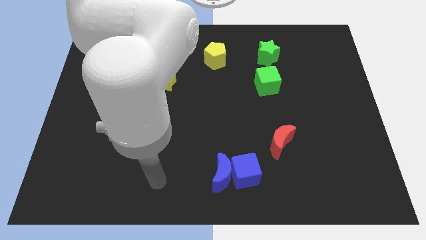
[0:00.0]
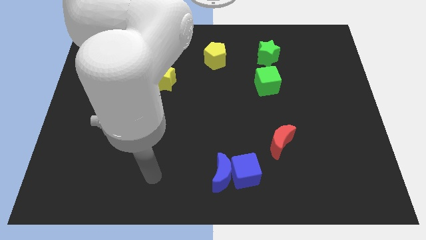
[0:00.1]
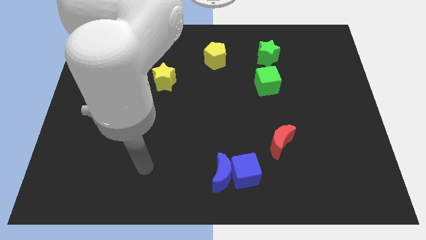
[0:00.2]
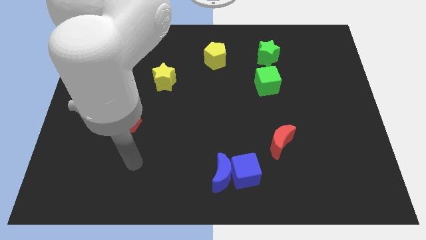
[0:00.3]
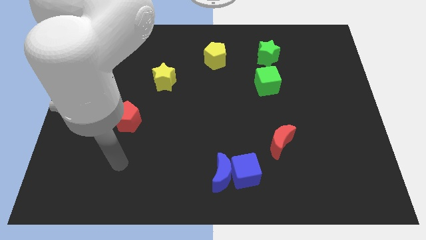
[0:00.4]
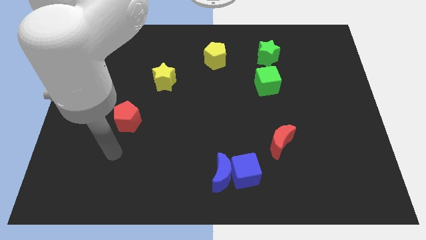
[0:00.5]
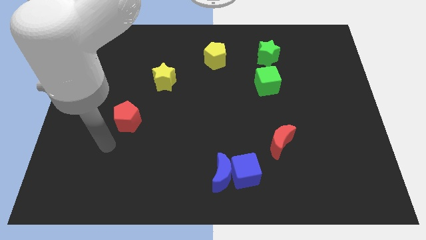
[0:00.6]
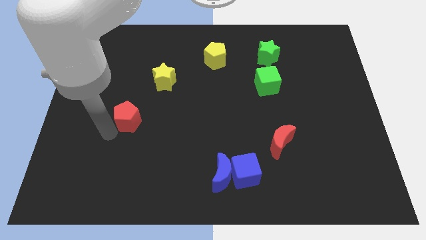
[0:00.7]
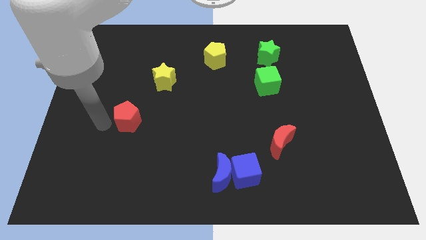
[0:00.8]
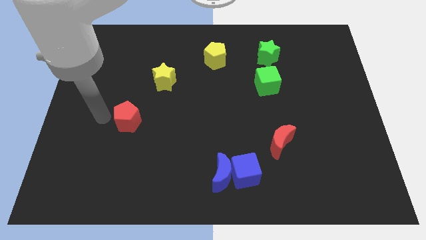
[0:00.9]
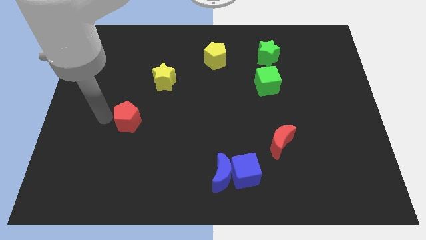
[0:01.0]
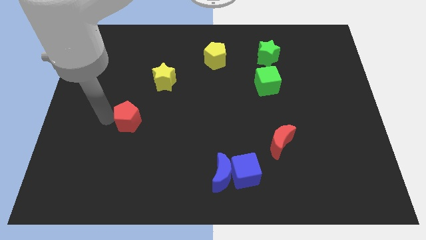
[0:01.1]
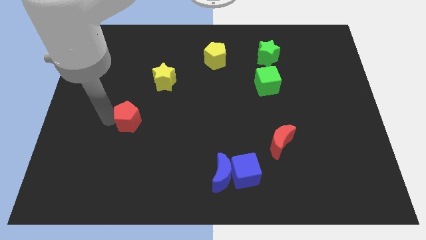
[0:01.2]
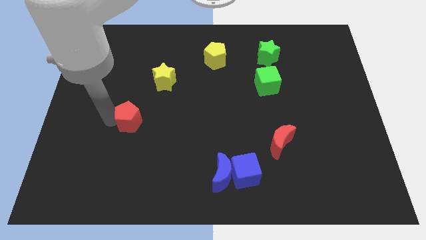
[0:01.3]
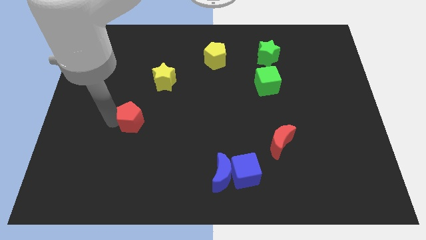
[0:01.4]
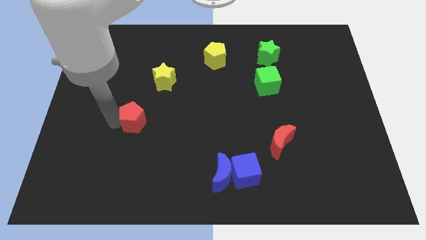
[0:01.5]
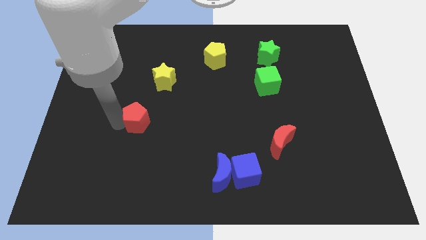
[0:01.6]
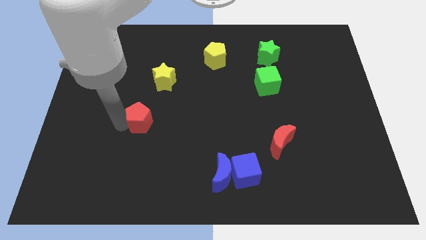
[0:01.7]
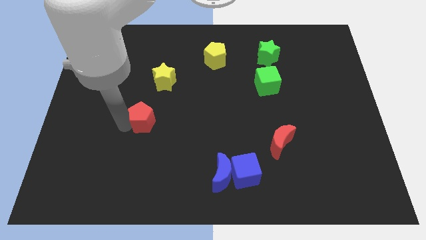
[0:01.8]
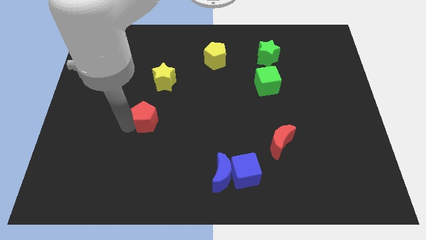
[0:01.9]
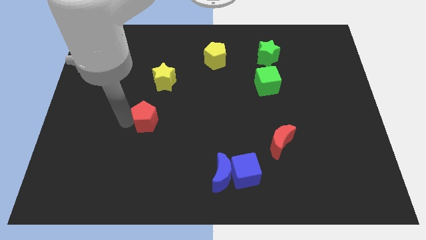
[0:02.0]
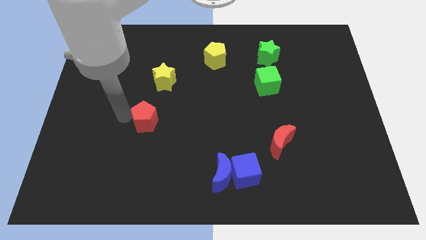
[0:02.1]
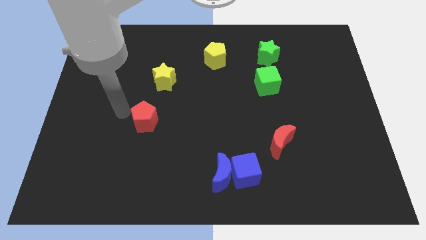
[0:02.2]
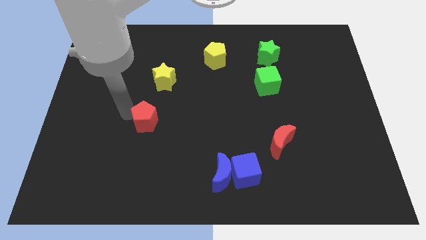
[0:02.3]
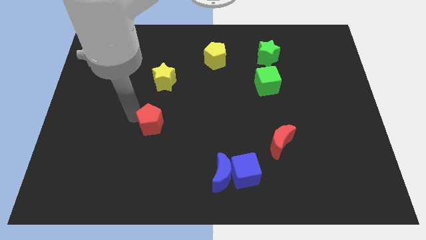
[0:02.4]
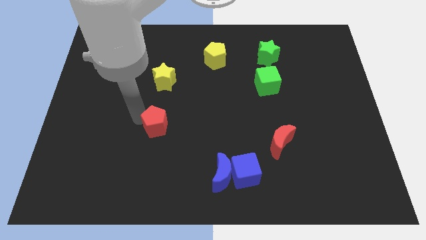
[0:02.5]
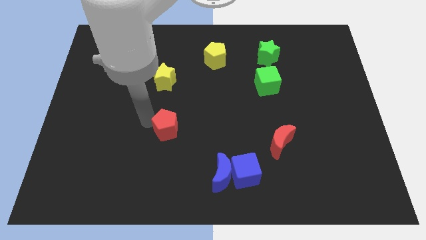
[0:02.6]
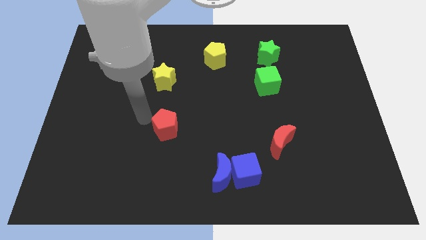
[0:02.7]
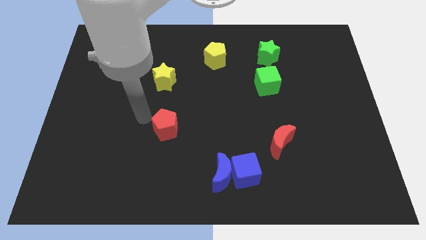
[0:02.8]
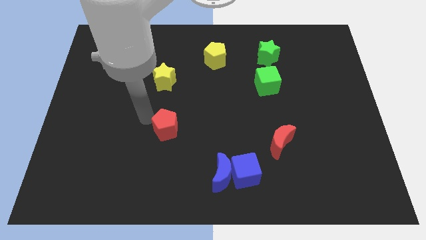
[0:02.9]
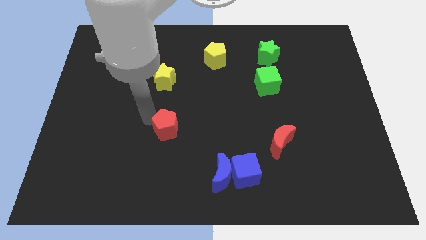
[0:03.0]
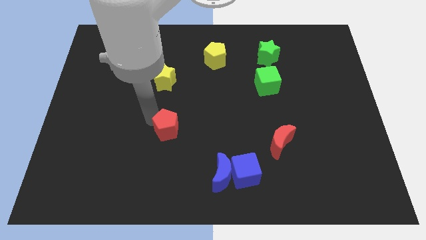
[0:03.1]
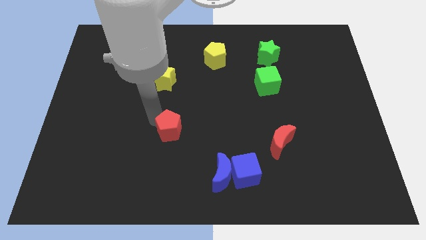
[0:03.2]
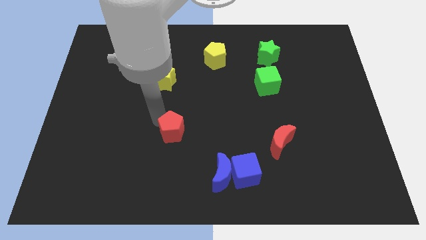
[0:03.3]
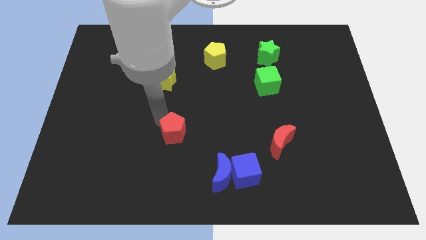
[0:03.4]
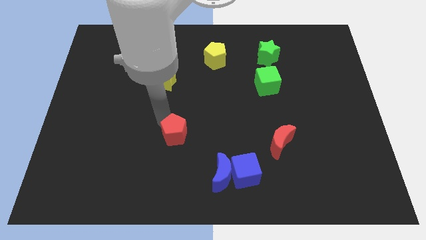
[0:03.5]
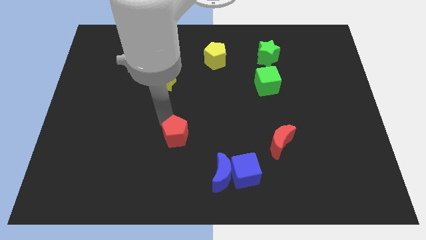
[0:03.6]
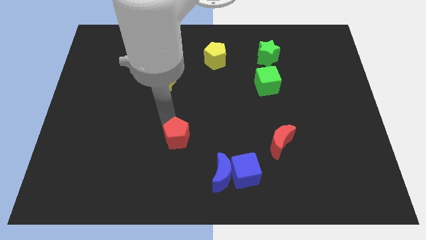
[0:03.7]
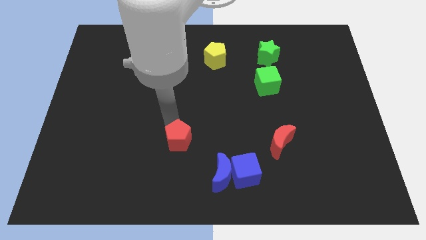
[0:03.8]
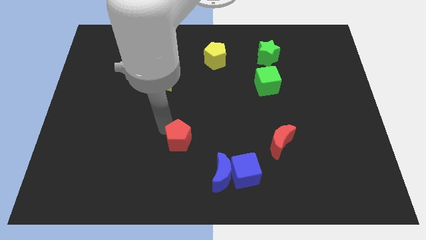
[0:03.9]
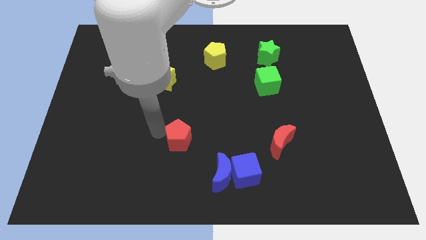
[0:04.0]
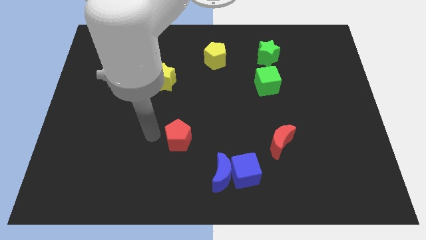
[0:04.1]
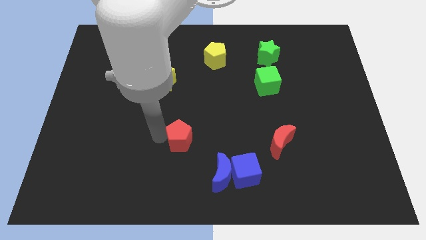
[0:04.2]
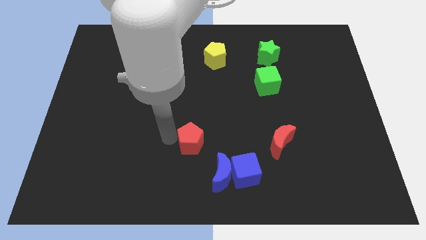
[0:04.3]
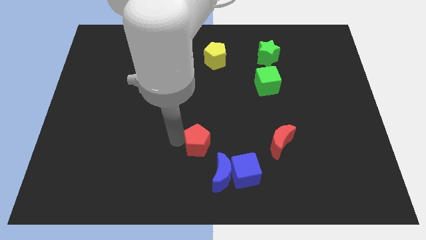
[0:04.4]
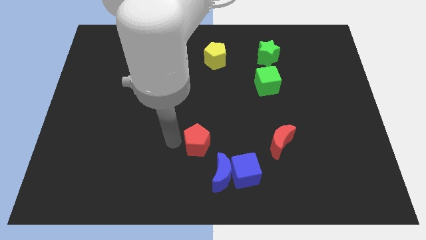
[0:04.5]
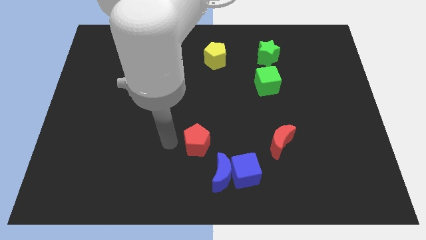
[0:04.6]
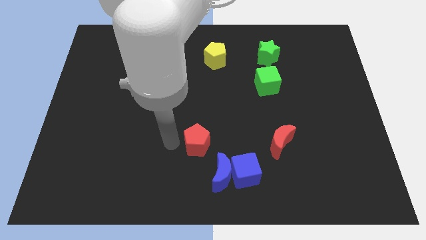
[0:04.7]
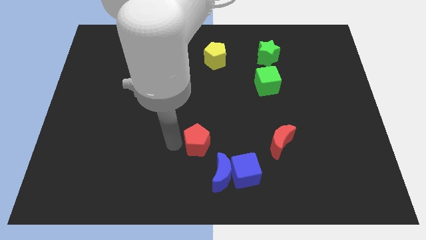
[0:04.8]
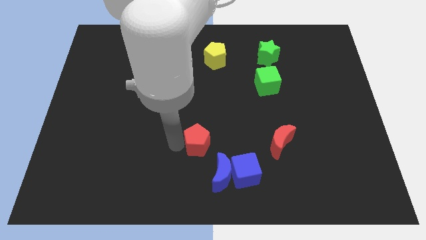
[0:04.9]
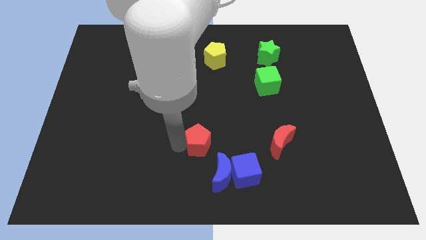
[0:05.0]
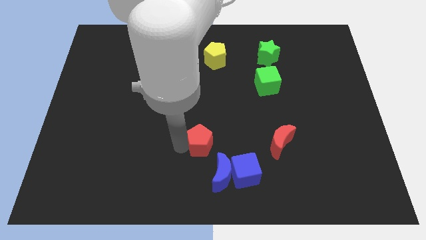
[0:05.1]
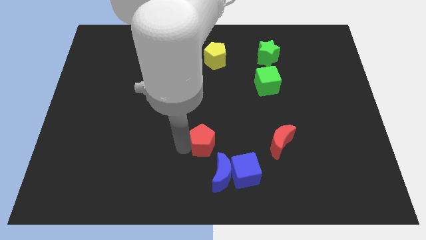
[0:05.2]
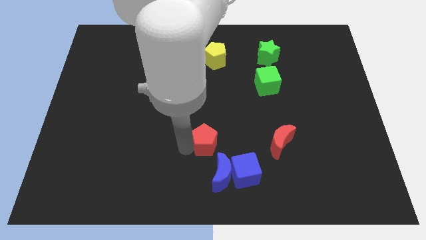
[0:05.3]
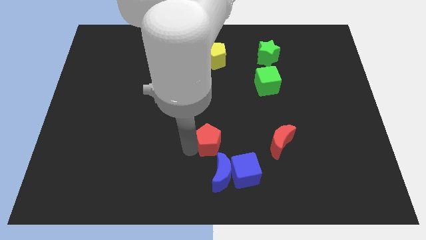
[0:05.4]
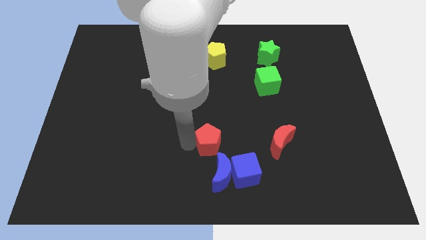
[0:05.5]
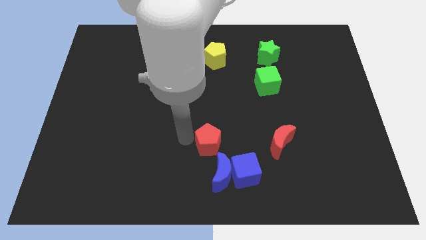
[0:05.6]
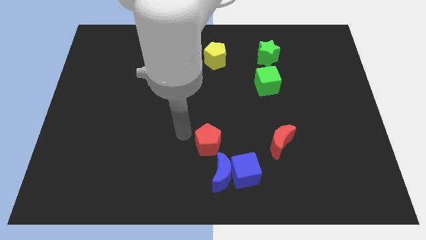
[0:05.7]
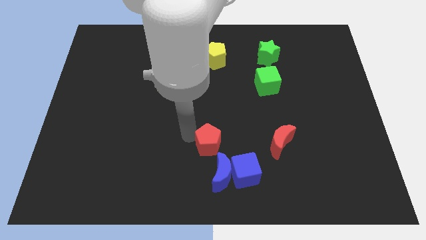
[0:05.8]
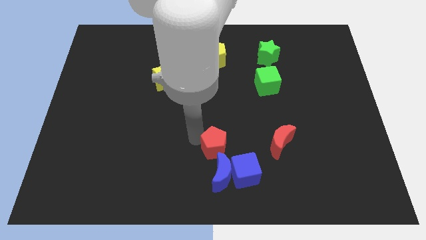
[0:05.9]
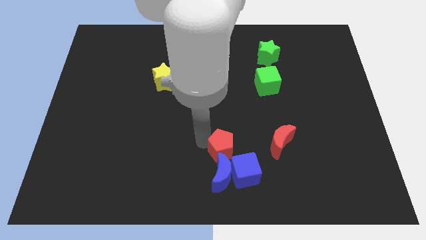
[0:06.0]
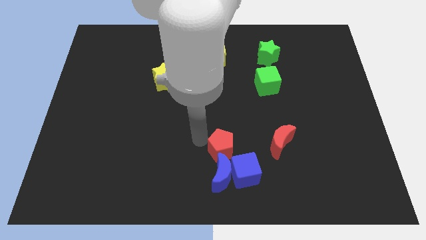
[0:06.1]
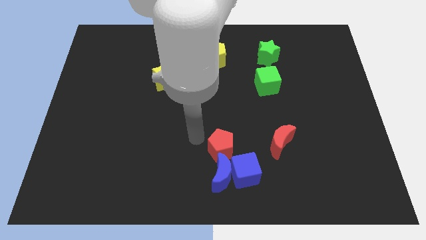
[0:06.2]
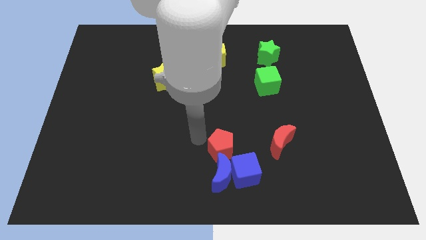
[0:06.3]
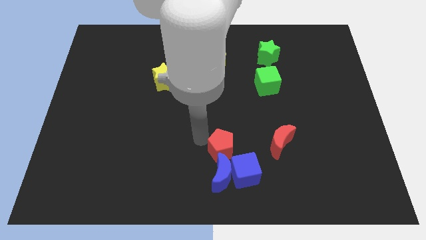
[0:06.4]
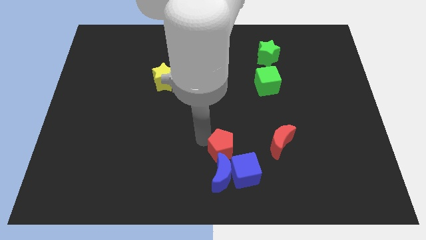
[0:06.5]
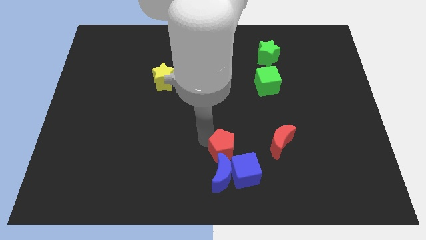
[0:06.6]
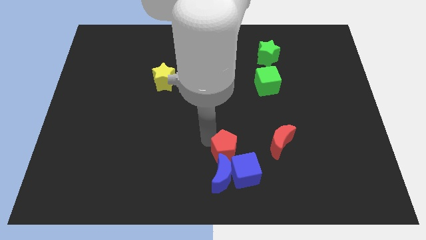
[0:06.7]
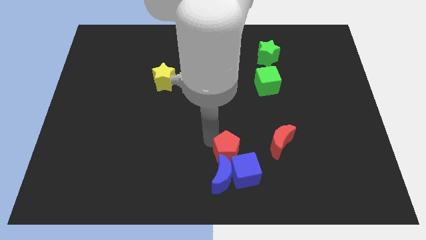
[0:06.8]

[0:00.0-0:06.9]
push the red pentagon to the blue moon

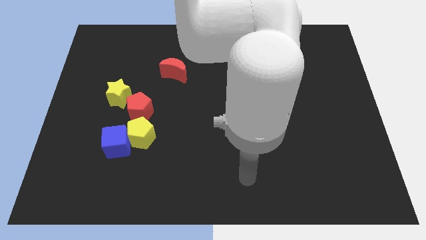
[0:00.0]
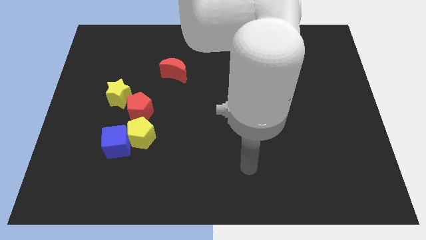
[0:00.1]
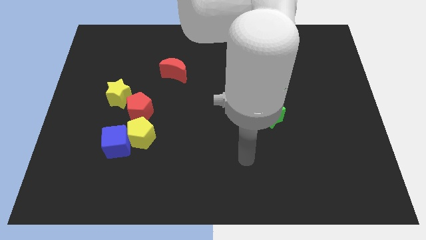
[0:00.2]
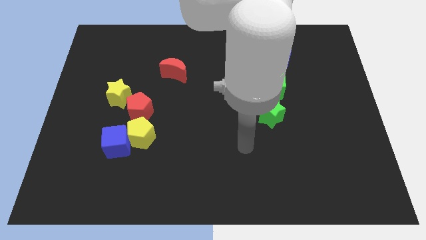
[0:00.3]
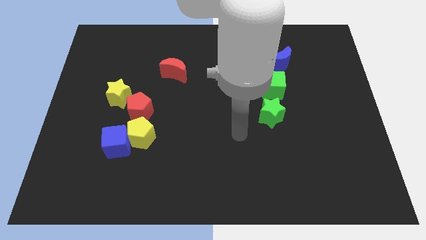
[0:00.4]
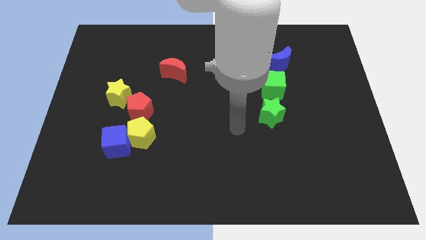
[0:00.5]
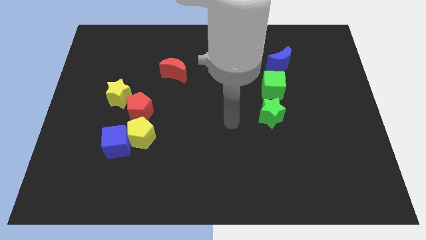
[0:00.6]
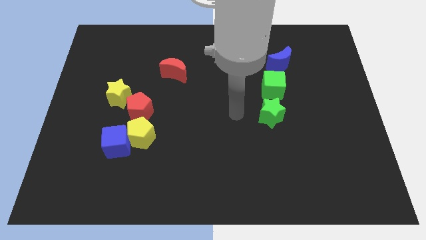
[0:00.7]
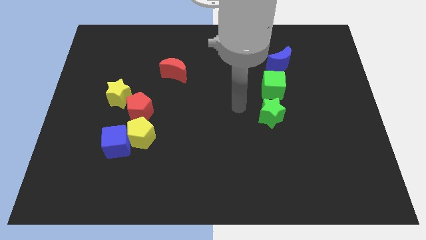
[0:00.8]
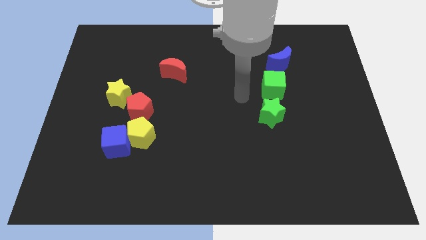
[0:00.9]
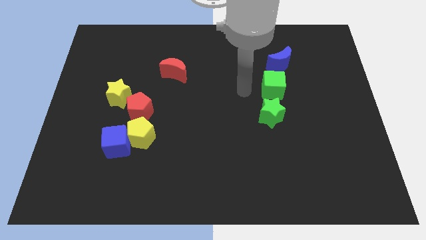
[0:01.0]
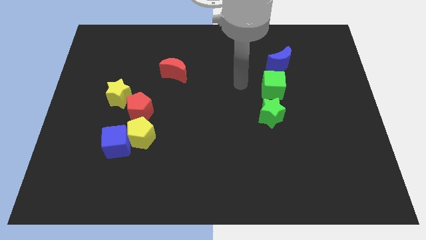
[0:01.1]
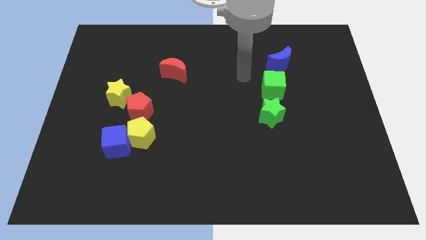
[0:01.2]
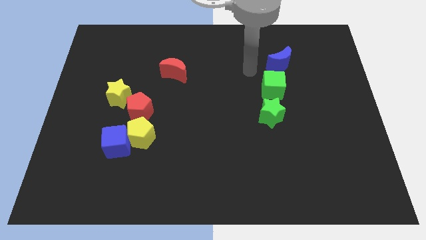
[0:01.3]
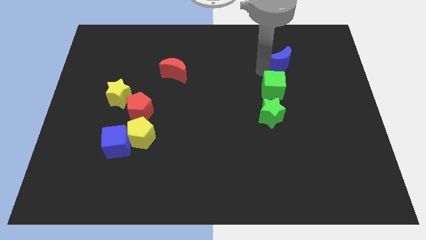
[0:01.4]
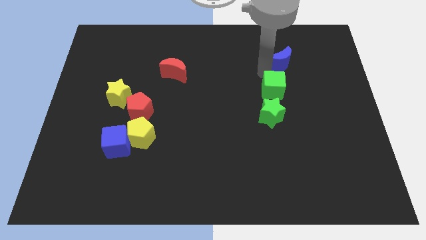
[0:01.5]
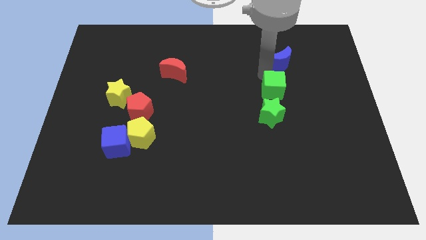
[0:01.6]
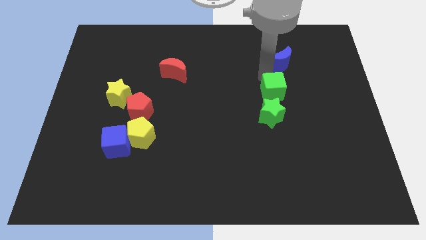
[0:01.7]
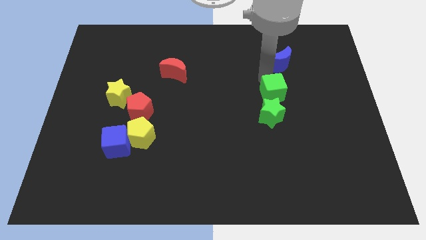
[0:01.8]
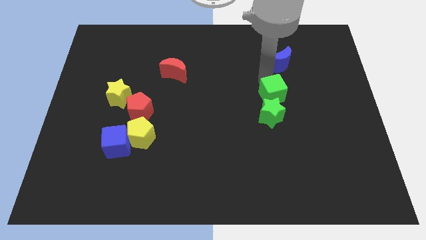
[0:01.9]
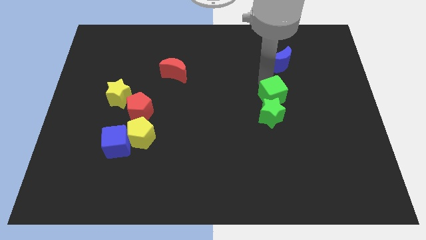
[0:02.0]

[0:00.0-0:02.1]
push the green cube next to the green star
